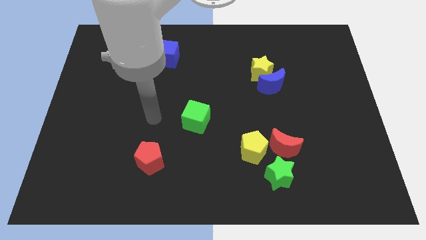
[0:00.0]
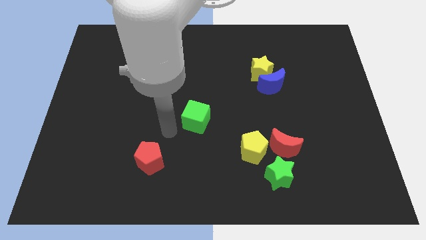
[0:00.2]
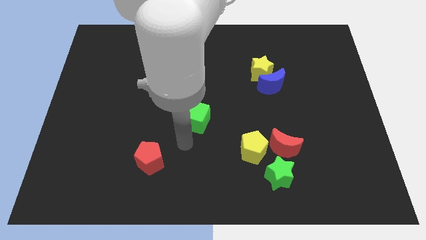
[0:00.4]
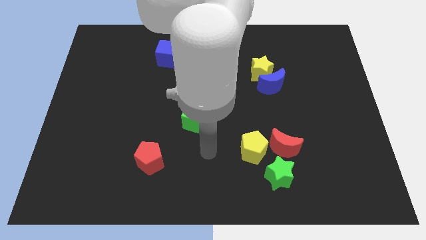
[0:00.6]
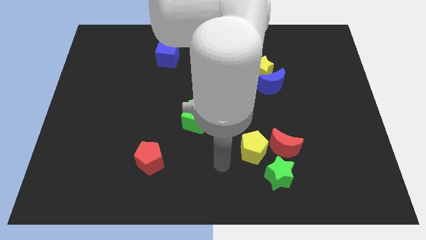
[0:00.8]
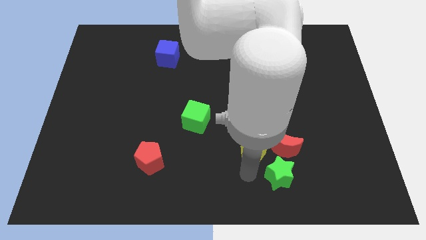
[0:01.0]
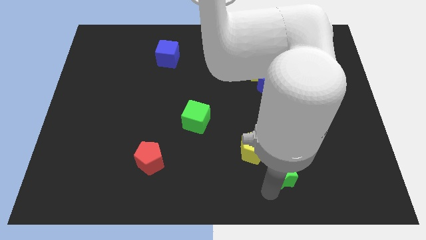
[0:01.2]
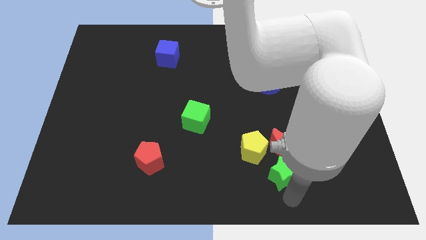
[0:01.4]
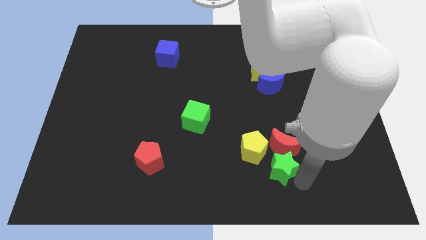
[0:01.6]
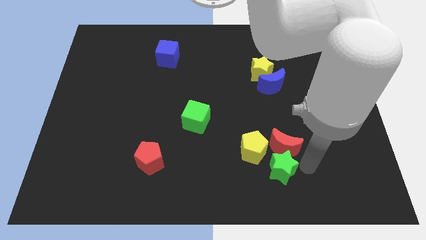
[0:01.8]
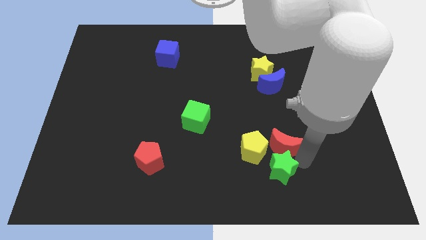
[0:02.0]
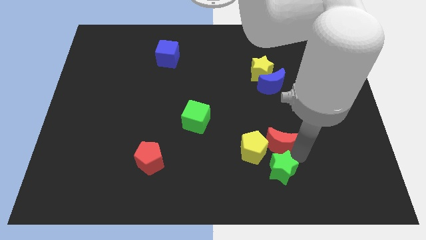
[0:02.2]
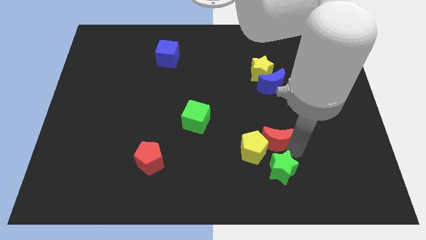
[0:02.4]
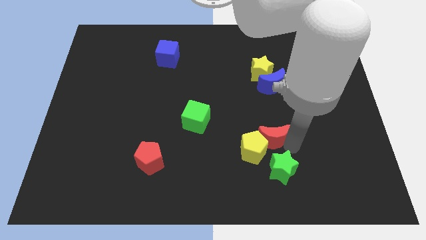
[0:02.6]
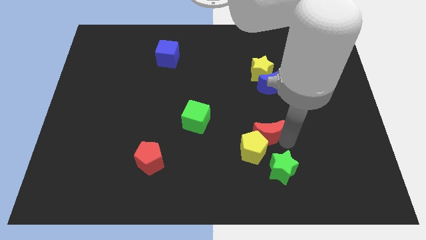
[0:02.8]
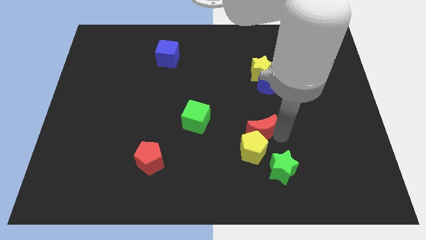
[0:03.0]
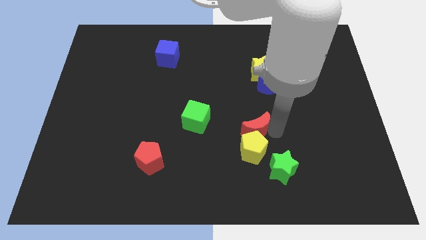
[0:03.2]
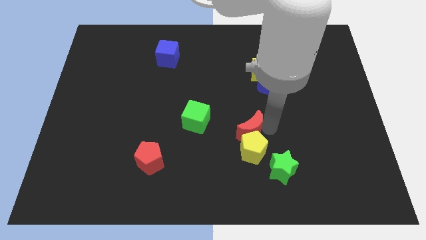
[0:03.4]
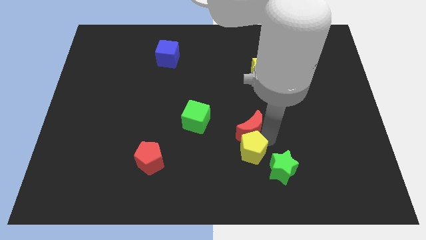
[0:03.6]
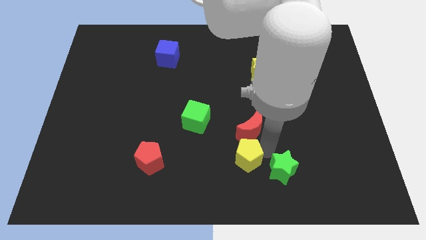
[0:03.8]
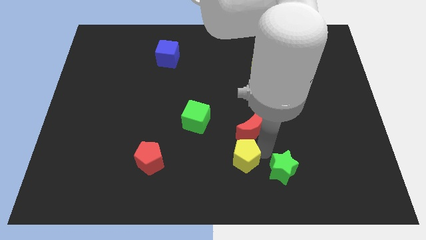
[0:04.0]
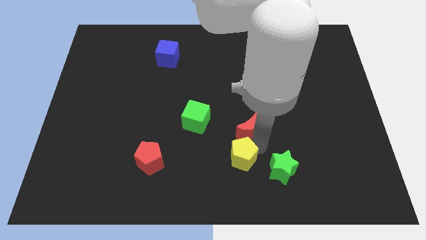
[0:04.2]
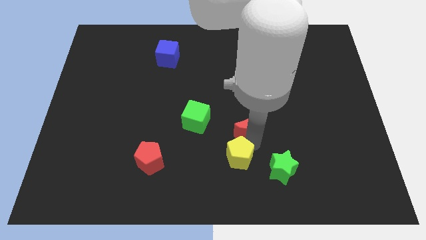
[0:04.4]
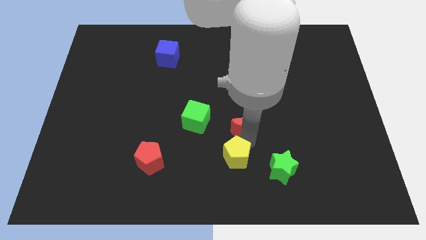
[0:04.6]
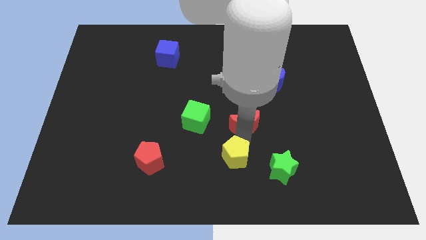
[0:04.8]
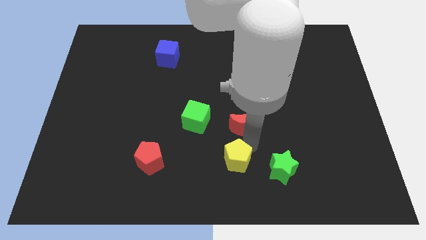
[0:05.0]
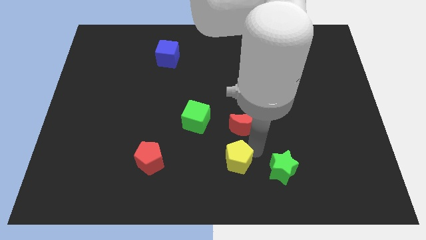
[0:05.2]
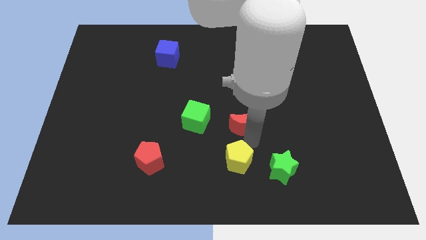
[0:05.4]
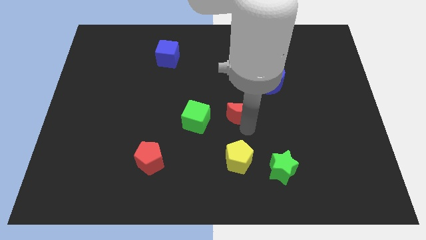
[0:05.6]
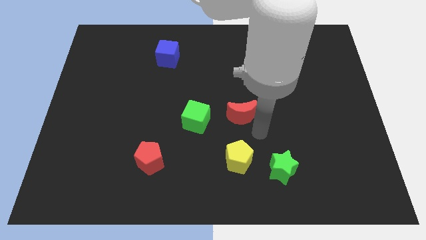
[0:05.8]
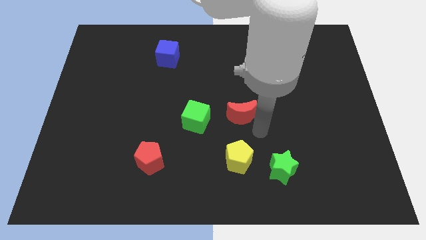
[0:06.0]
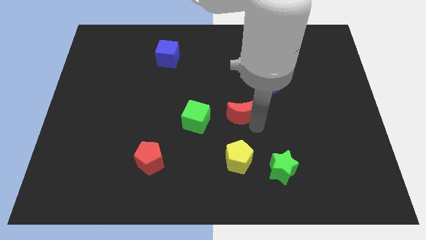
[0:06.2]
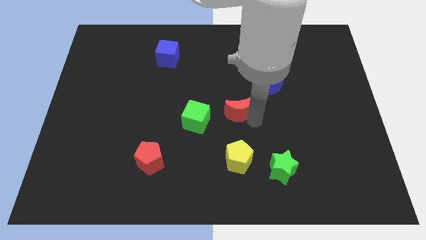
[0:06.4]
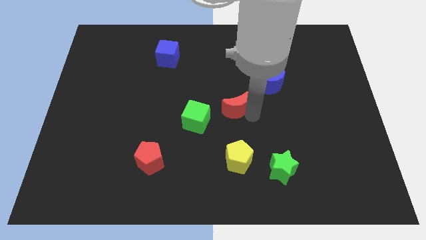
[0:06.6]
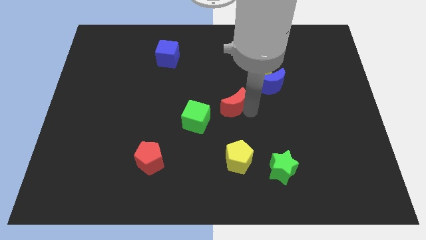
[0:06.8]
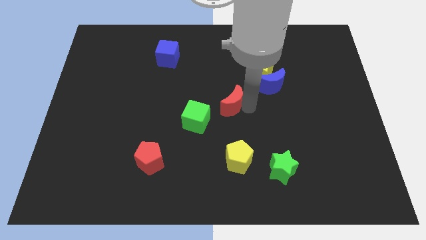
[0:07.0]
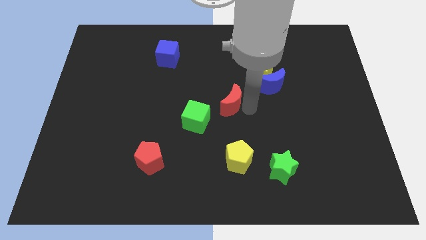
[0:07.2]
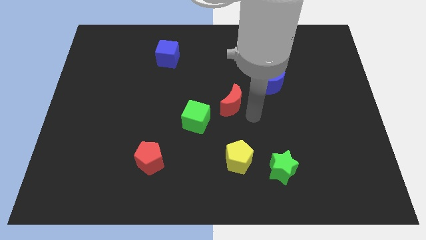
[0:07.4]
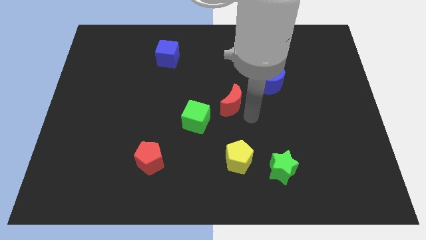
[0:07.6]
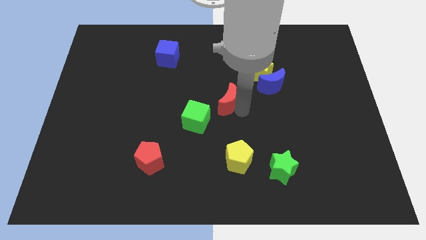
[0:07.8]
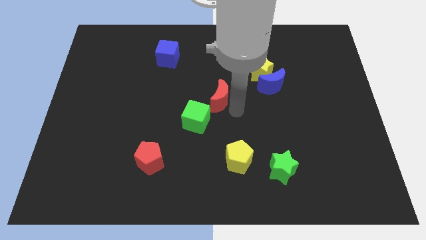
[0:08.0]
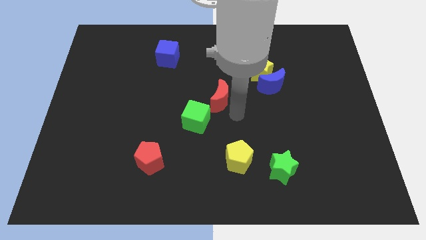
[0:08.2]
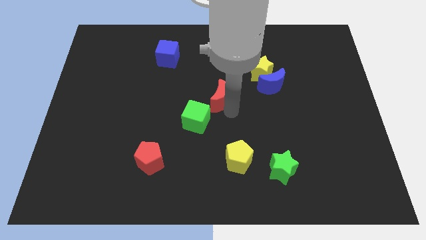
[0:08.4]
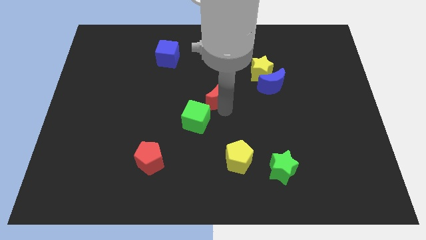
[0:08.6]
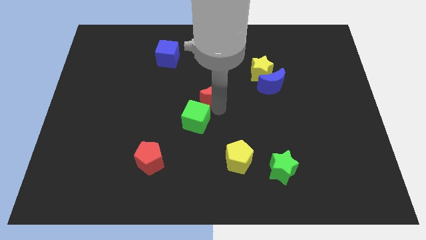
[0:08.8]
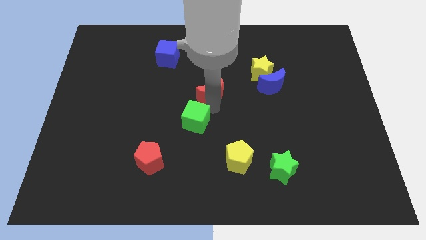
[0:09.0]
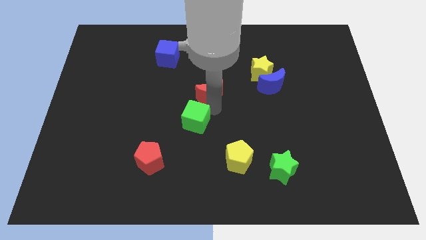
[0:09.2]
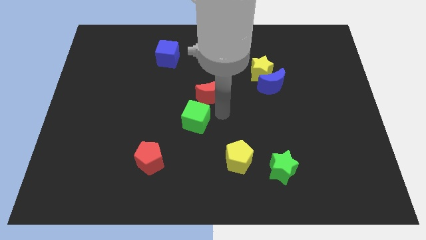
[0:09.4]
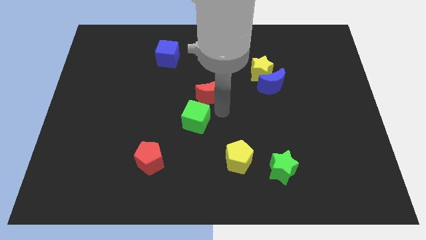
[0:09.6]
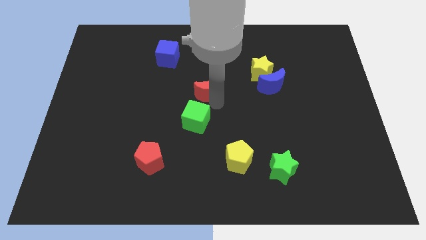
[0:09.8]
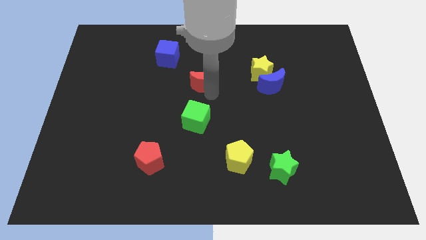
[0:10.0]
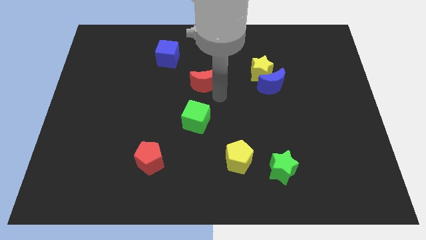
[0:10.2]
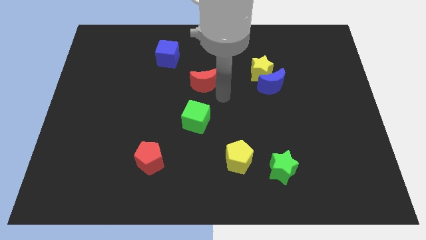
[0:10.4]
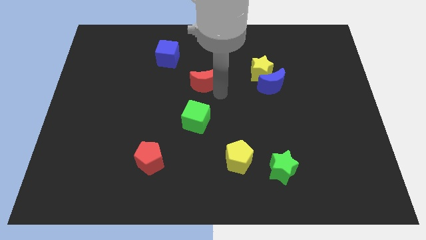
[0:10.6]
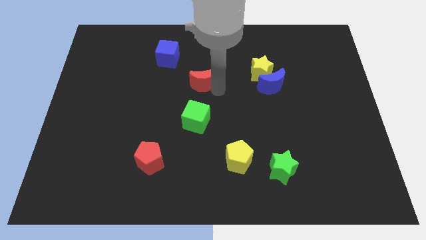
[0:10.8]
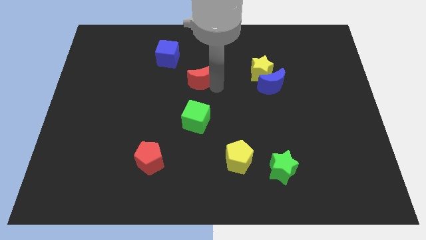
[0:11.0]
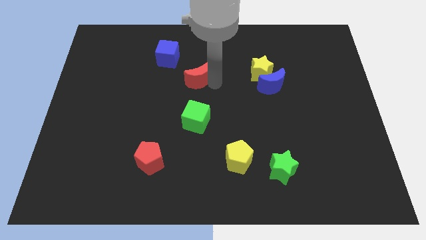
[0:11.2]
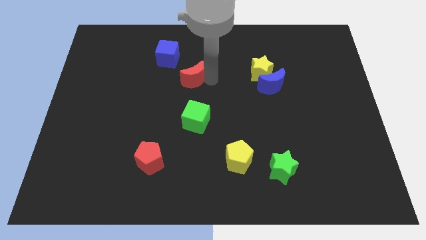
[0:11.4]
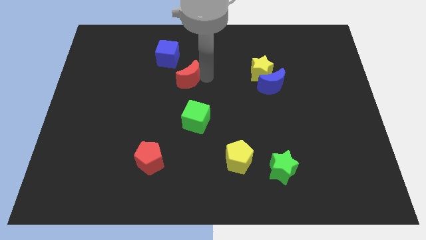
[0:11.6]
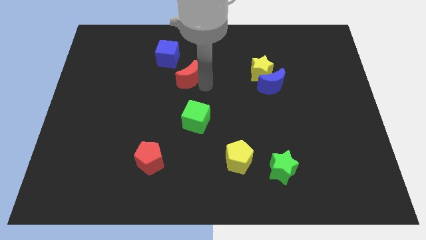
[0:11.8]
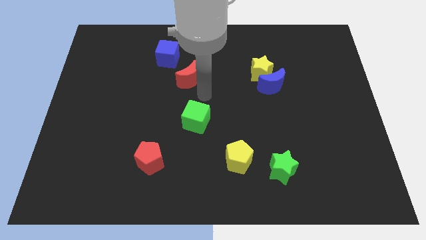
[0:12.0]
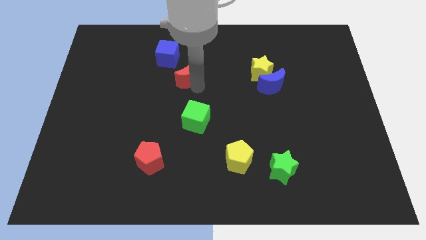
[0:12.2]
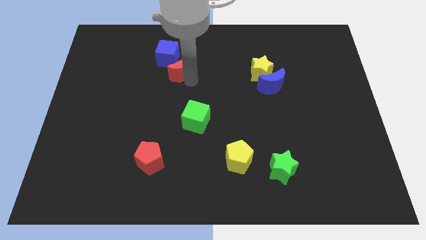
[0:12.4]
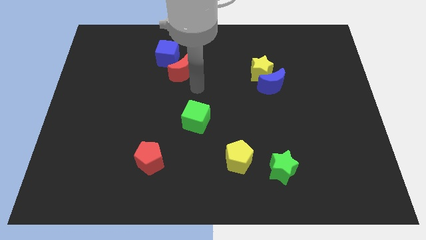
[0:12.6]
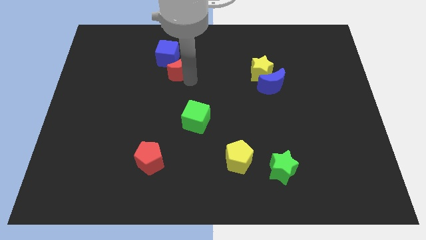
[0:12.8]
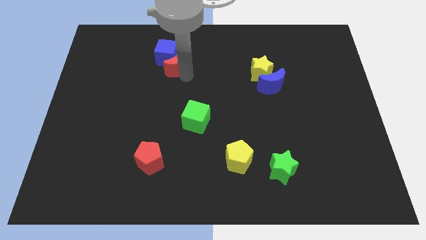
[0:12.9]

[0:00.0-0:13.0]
slide the red moon towards the blue cube

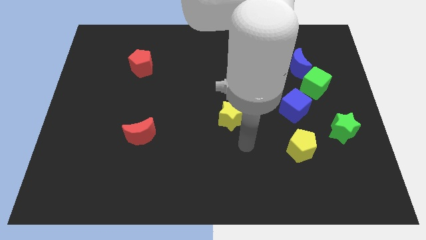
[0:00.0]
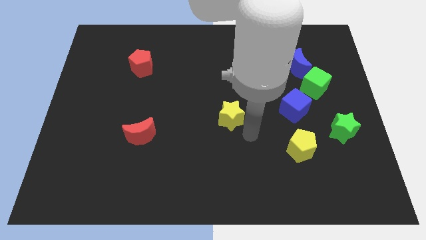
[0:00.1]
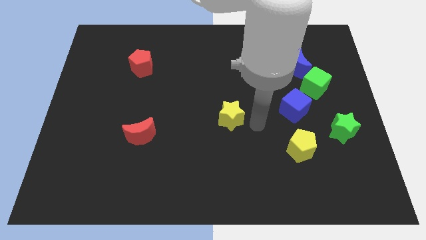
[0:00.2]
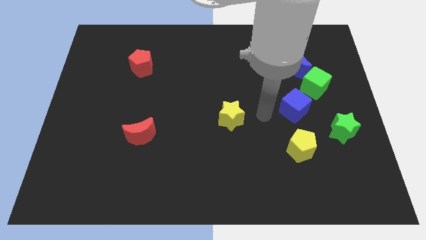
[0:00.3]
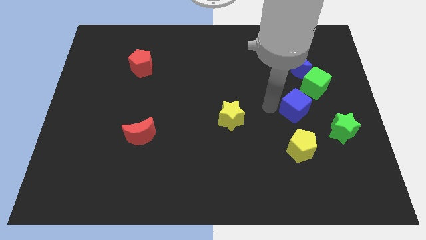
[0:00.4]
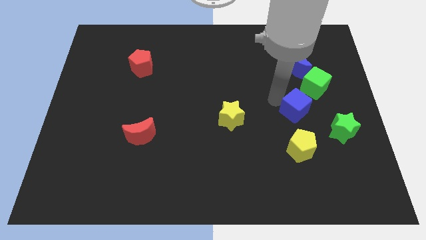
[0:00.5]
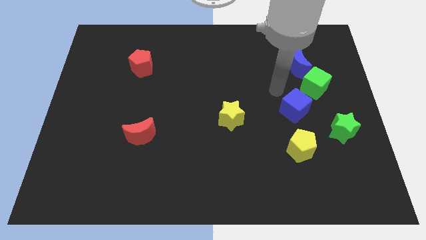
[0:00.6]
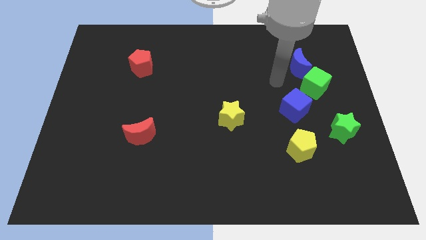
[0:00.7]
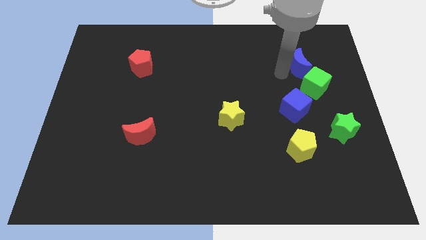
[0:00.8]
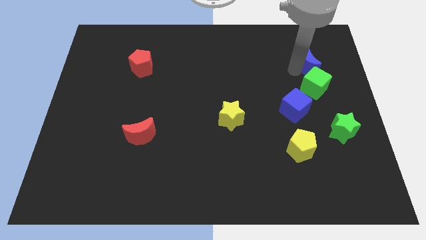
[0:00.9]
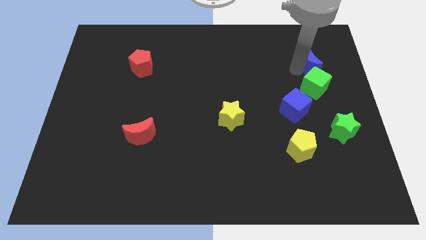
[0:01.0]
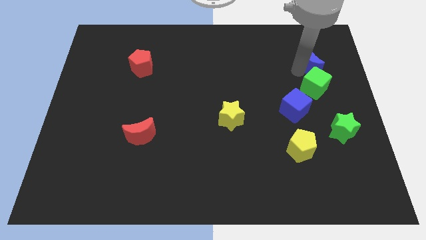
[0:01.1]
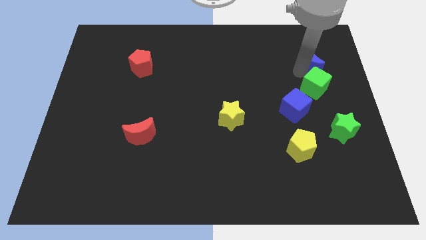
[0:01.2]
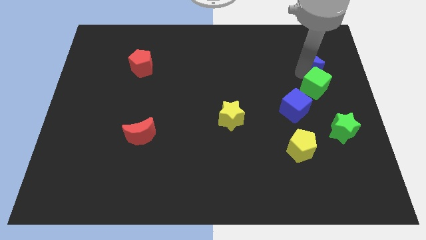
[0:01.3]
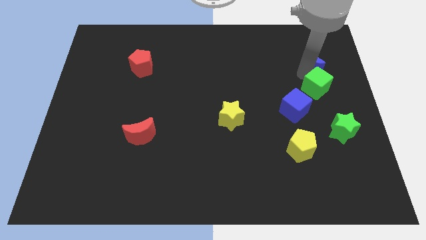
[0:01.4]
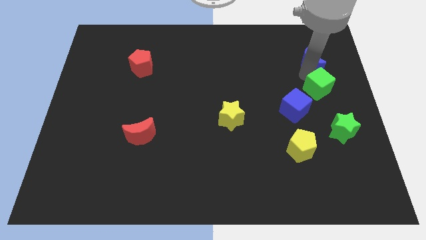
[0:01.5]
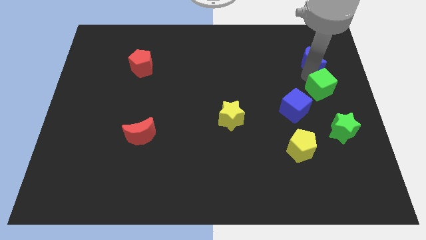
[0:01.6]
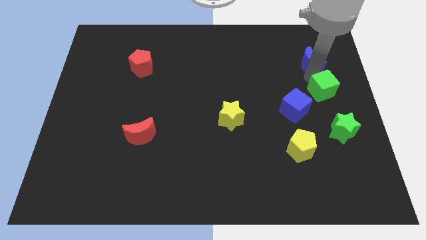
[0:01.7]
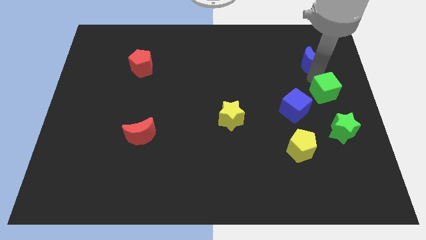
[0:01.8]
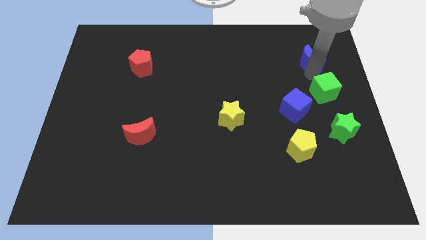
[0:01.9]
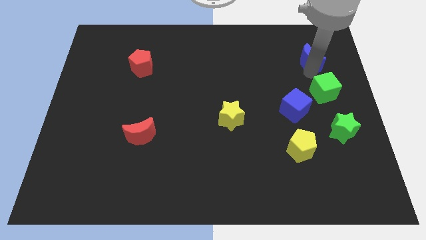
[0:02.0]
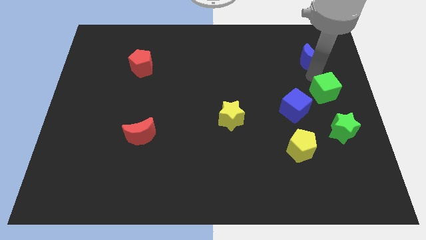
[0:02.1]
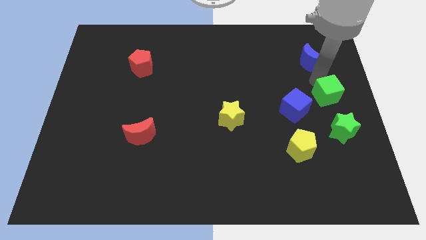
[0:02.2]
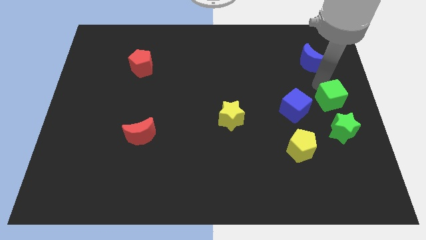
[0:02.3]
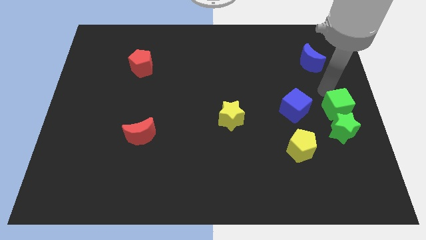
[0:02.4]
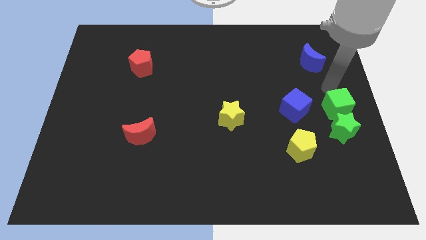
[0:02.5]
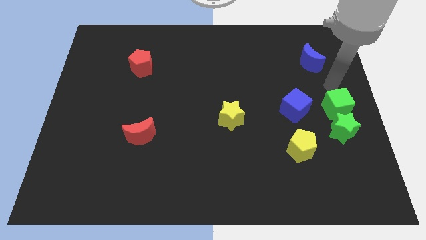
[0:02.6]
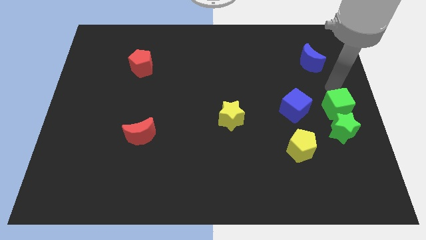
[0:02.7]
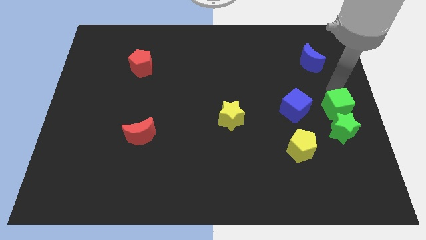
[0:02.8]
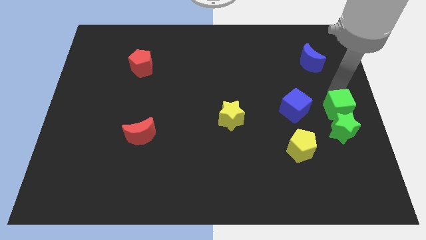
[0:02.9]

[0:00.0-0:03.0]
slide the green cube towards the green star
